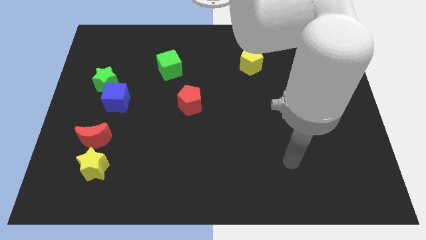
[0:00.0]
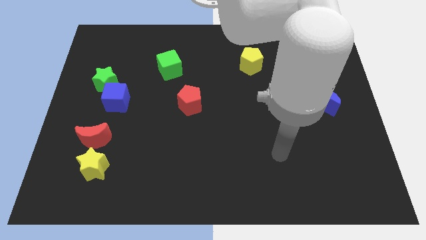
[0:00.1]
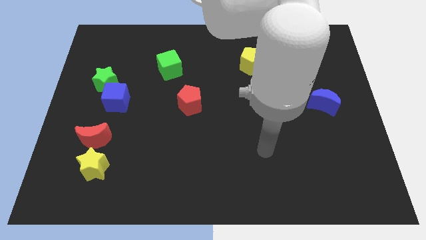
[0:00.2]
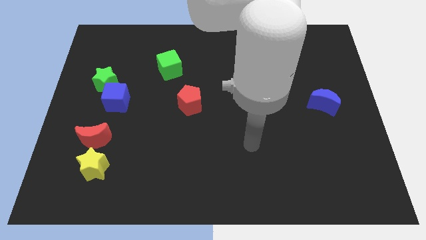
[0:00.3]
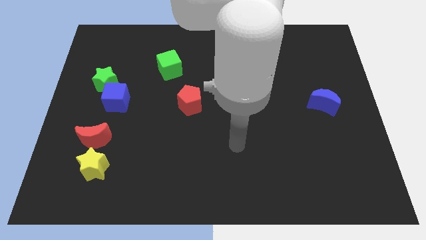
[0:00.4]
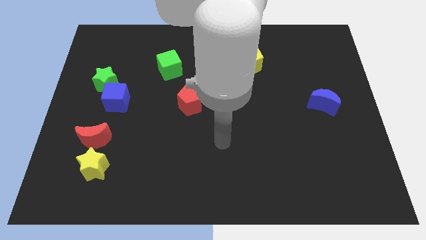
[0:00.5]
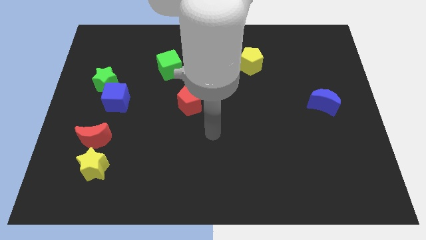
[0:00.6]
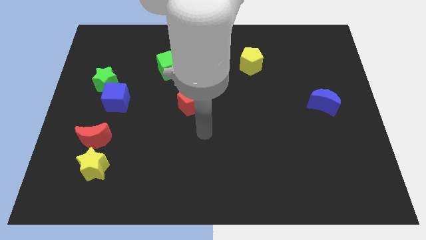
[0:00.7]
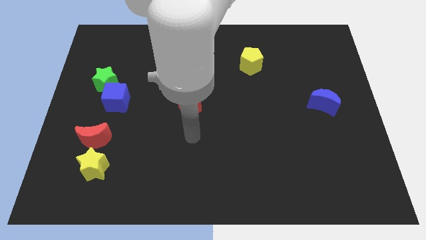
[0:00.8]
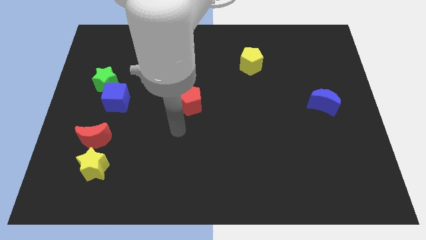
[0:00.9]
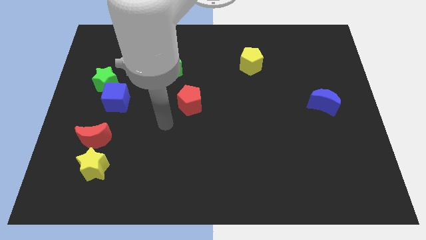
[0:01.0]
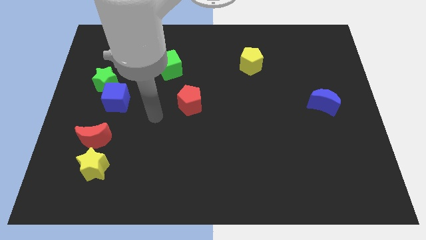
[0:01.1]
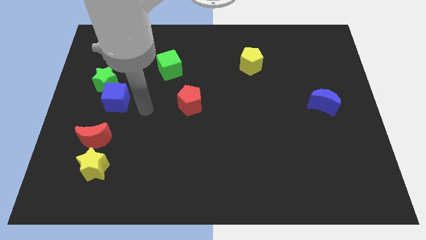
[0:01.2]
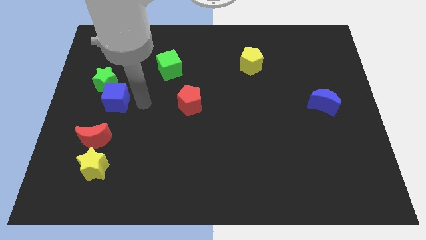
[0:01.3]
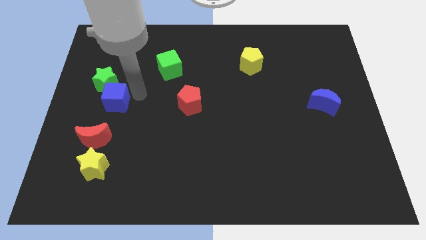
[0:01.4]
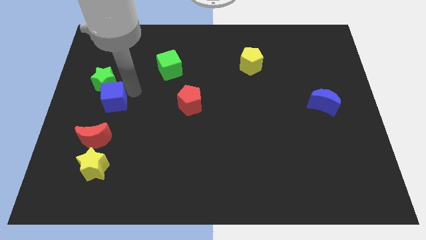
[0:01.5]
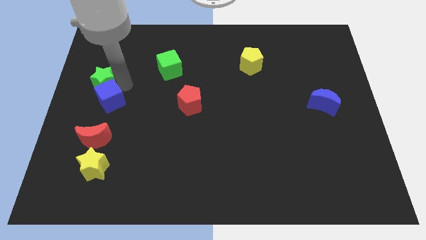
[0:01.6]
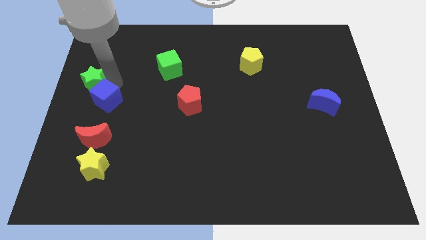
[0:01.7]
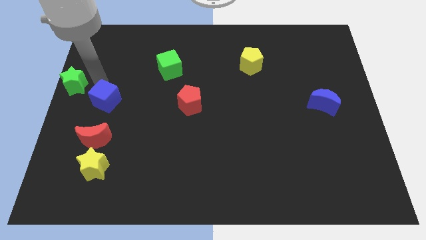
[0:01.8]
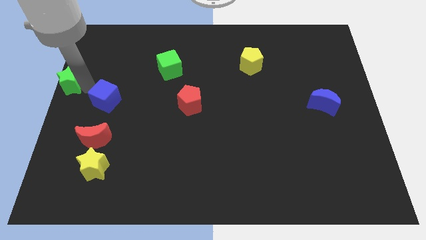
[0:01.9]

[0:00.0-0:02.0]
separate the blue cube from the green star

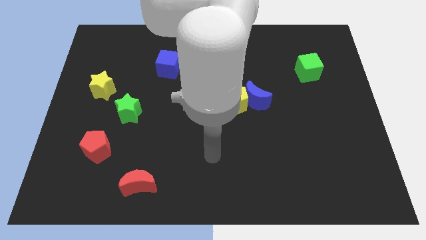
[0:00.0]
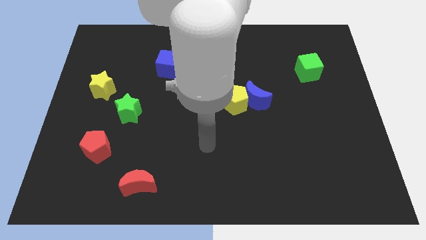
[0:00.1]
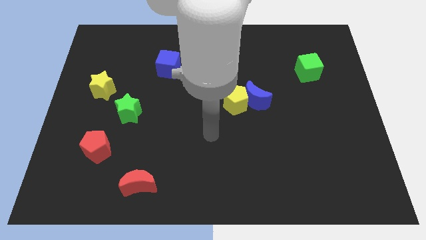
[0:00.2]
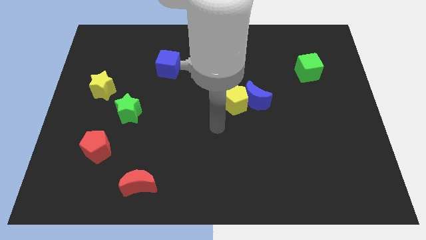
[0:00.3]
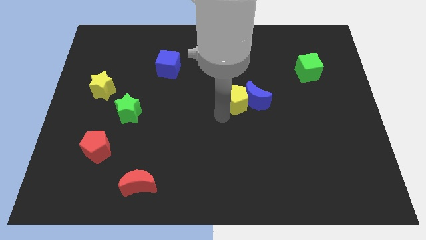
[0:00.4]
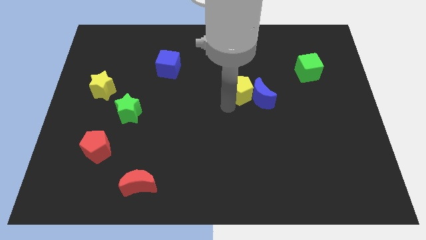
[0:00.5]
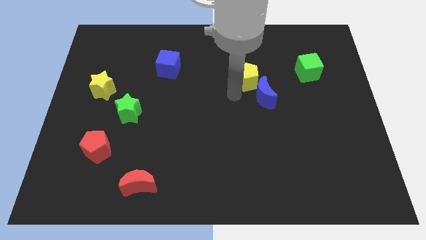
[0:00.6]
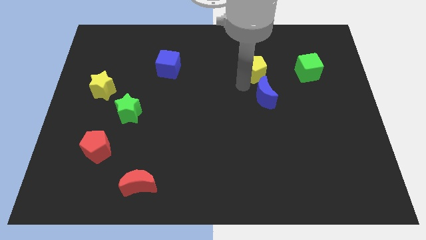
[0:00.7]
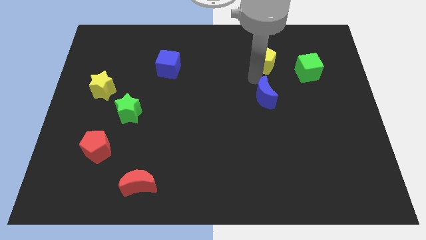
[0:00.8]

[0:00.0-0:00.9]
move the blue moon away from the yellow pentagon

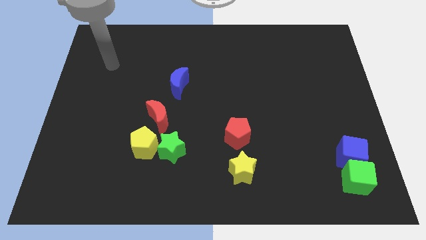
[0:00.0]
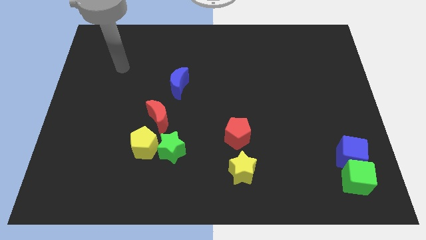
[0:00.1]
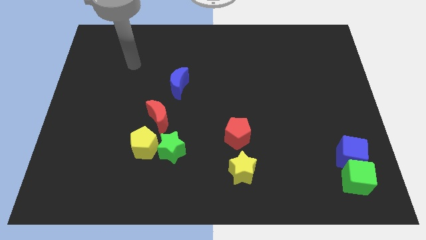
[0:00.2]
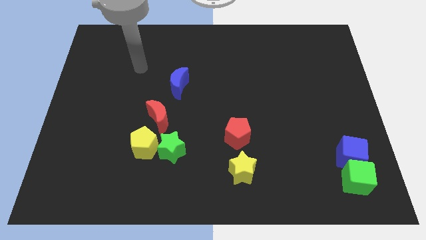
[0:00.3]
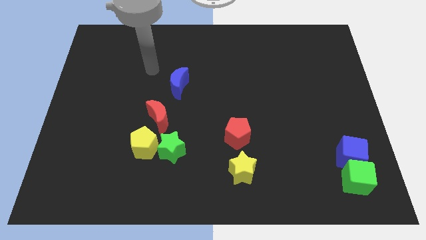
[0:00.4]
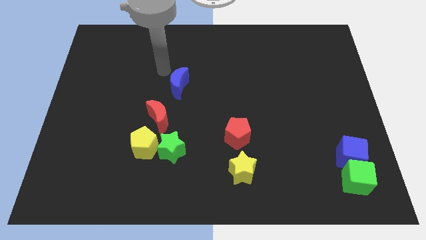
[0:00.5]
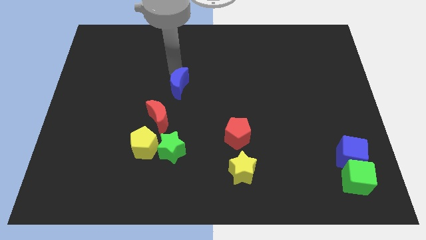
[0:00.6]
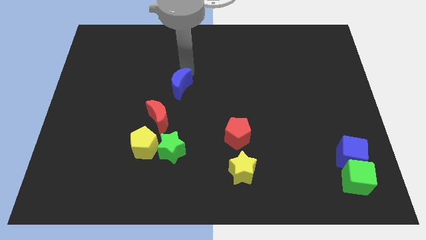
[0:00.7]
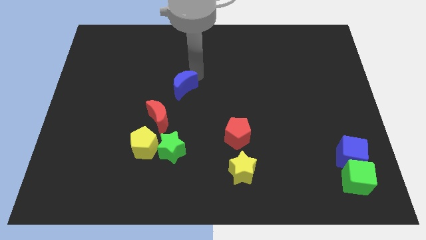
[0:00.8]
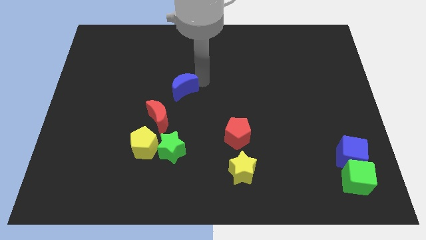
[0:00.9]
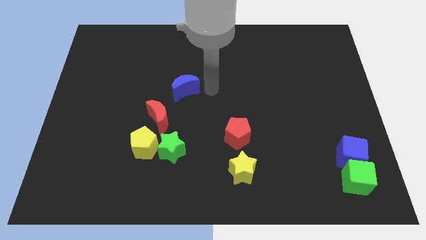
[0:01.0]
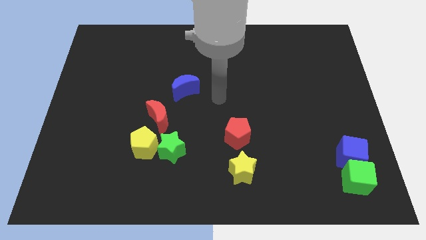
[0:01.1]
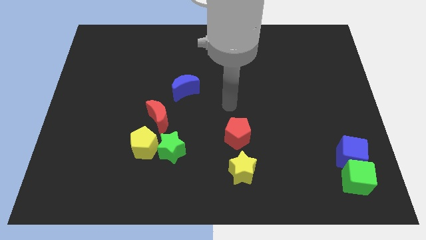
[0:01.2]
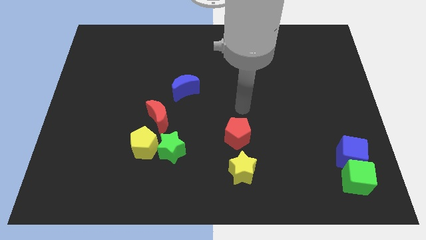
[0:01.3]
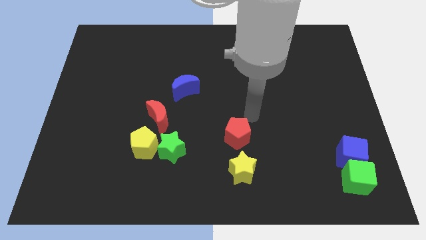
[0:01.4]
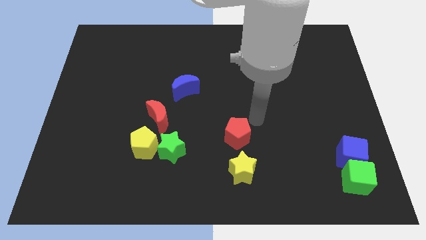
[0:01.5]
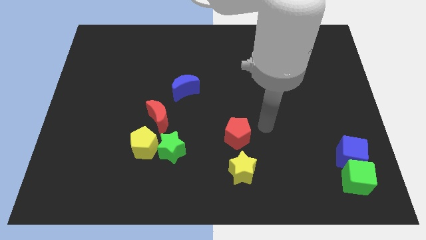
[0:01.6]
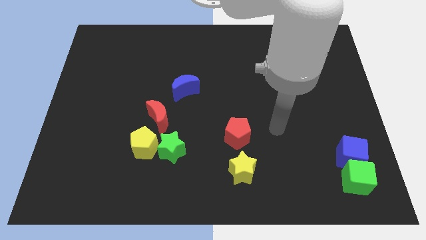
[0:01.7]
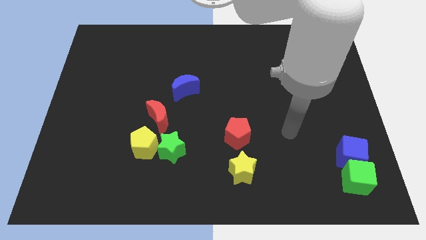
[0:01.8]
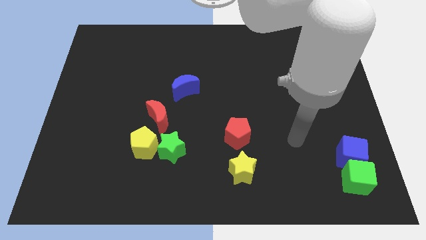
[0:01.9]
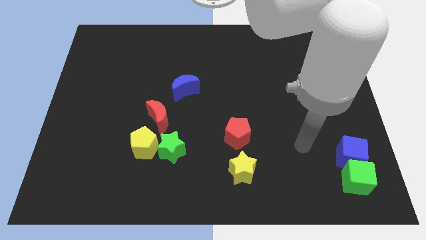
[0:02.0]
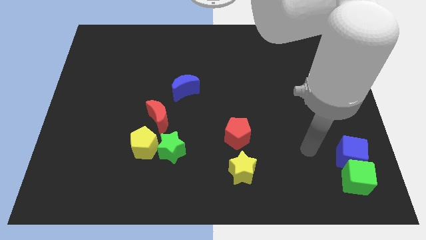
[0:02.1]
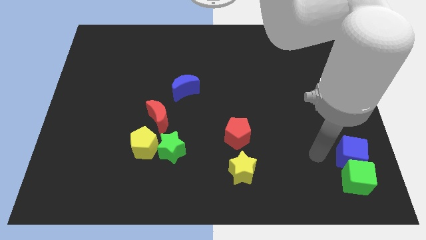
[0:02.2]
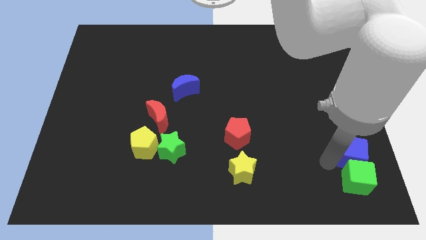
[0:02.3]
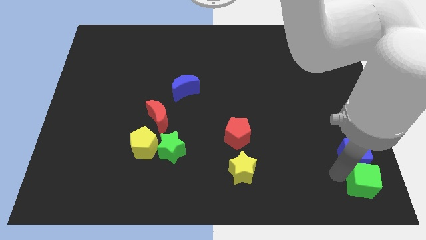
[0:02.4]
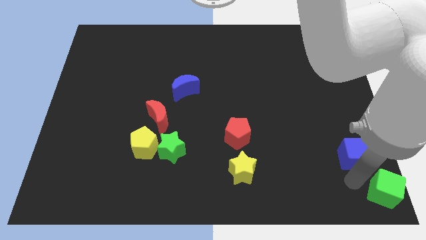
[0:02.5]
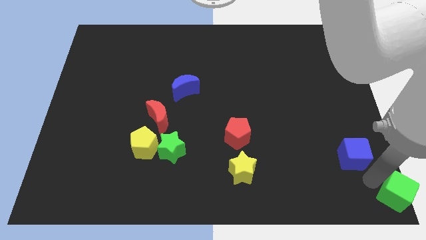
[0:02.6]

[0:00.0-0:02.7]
move the blue cube away from the green cube

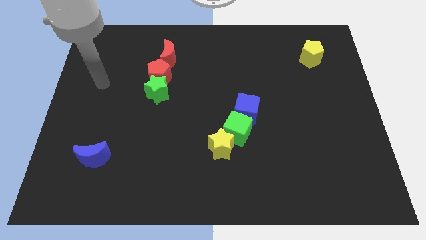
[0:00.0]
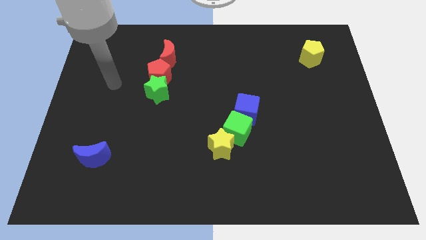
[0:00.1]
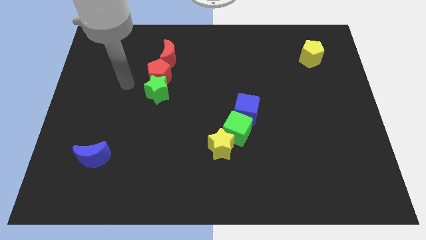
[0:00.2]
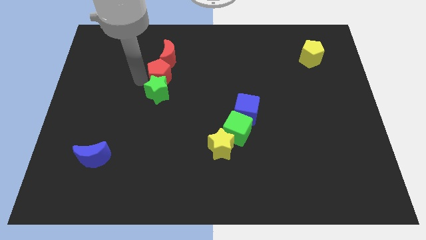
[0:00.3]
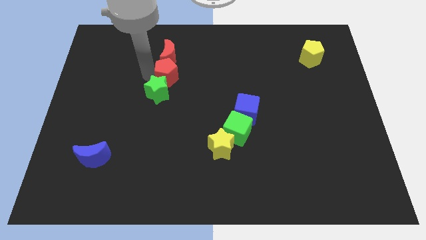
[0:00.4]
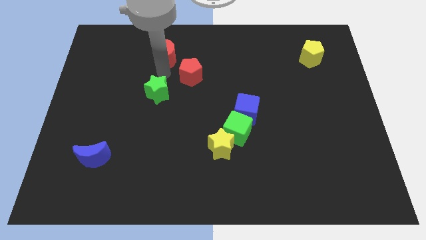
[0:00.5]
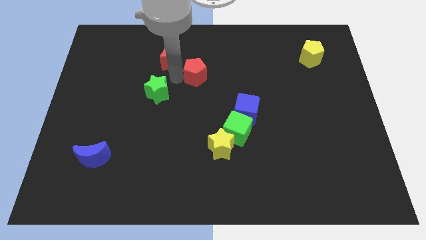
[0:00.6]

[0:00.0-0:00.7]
move the green star away from the red pentagon

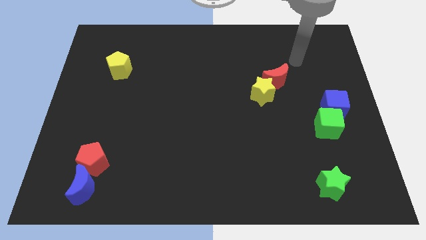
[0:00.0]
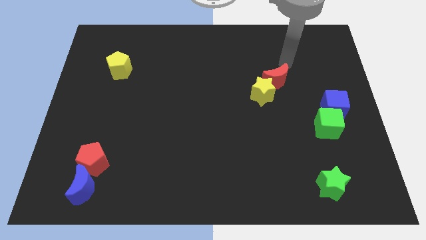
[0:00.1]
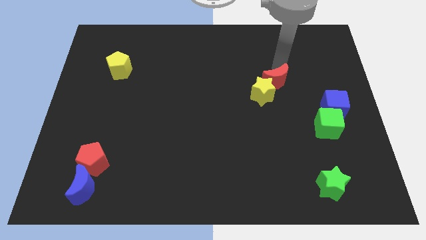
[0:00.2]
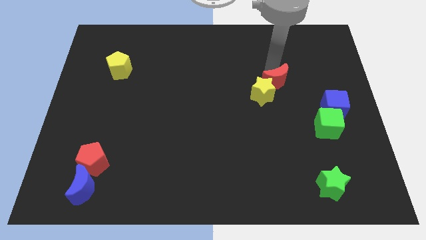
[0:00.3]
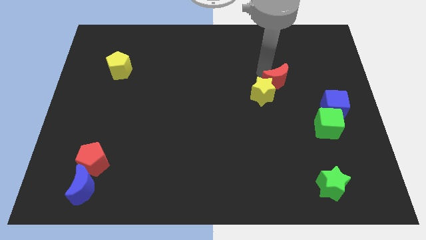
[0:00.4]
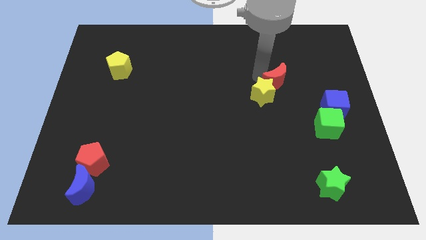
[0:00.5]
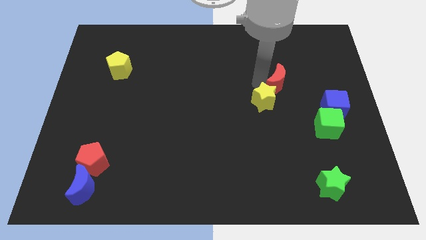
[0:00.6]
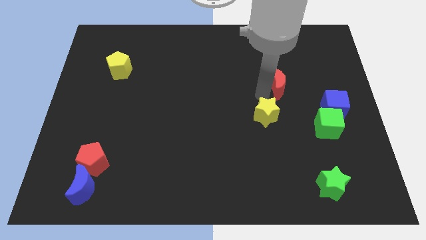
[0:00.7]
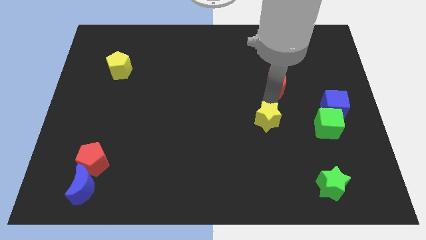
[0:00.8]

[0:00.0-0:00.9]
separate the red moon from the yellow star

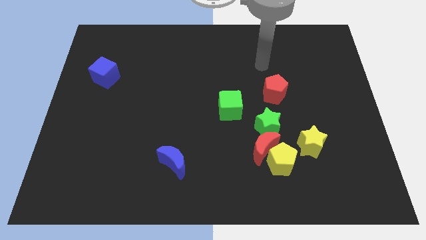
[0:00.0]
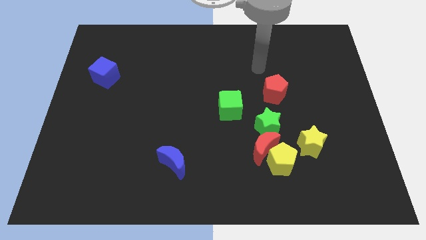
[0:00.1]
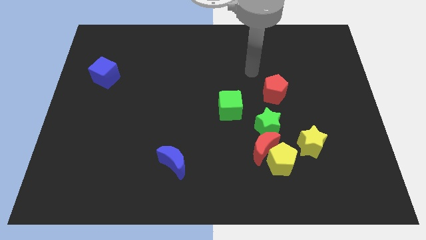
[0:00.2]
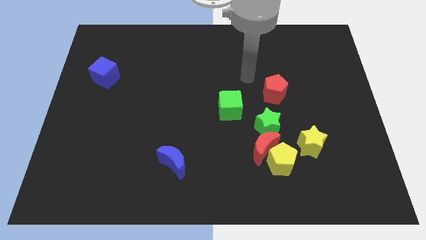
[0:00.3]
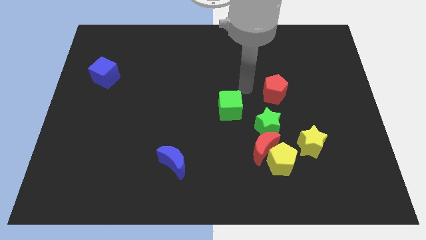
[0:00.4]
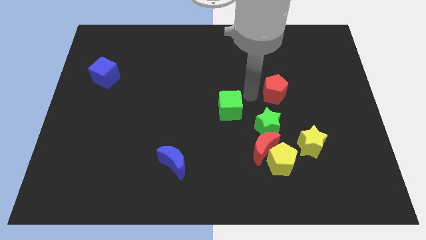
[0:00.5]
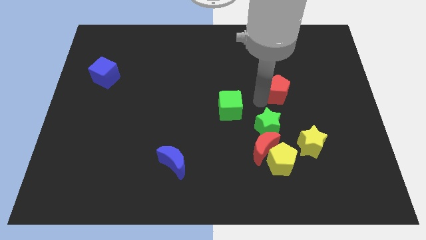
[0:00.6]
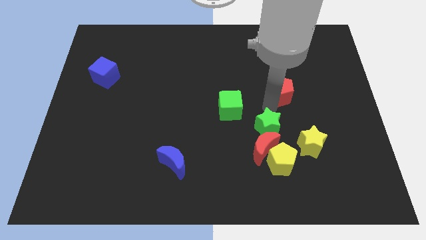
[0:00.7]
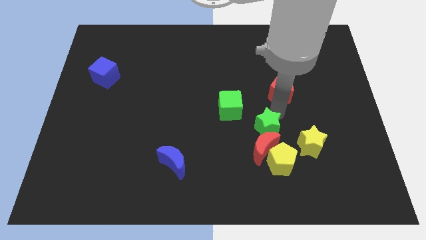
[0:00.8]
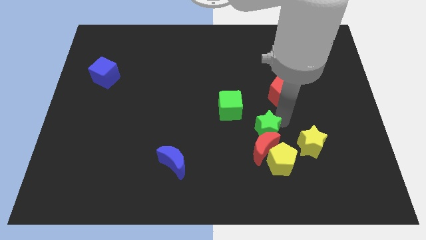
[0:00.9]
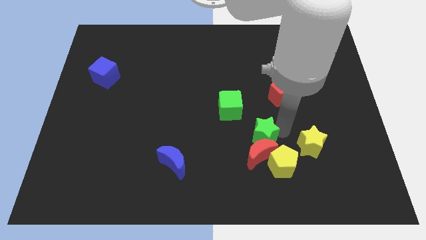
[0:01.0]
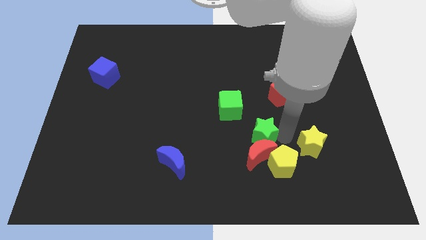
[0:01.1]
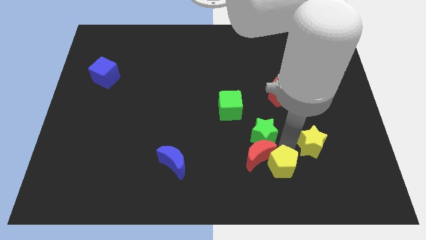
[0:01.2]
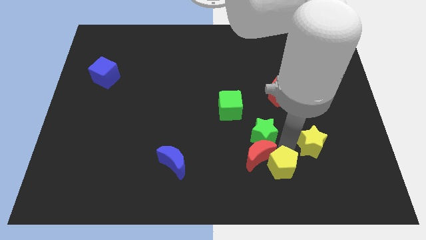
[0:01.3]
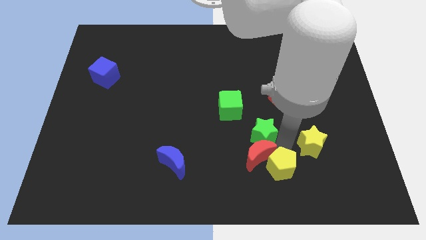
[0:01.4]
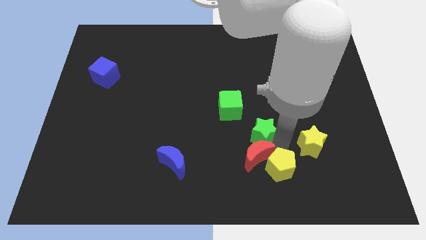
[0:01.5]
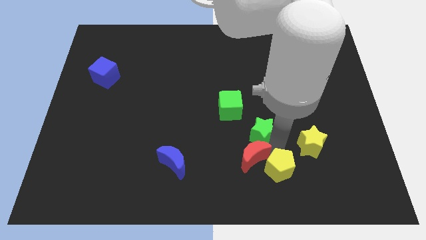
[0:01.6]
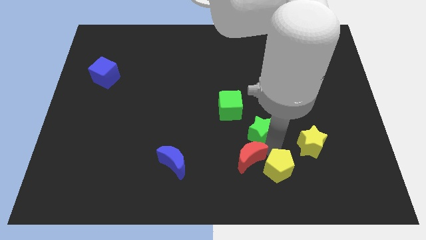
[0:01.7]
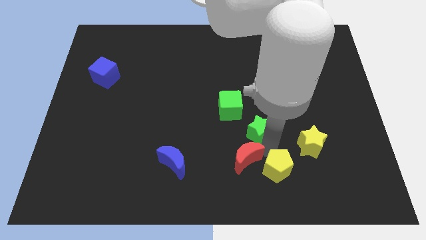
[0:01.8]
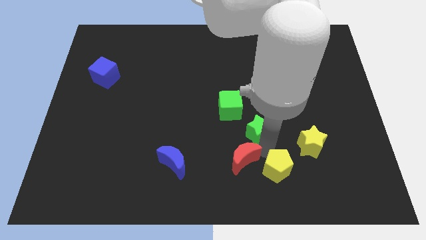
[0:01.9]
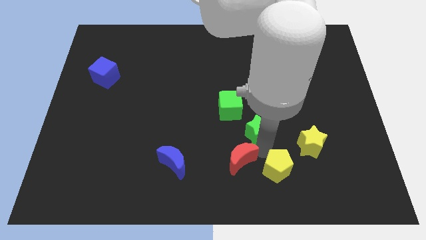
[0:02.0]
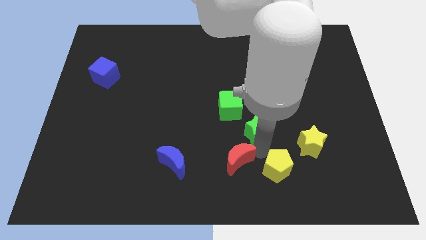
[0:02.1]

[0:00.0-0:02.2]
move the red moon away from the clump

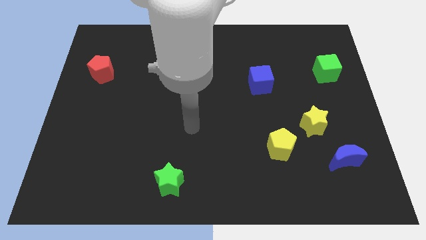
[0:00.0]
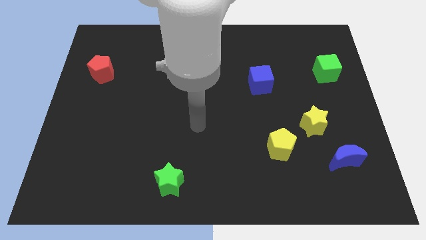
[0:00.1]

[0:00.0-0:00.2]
separate the blue moon from the yellow star
